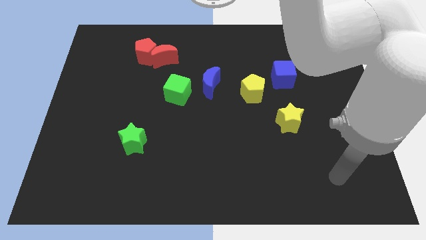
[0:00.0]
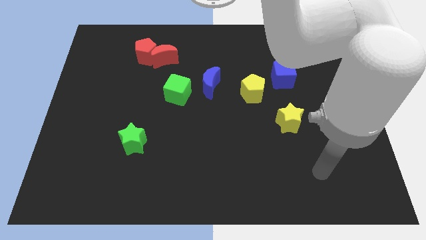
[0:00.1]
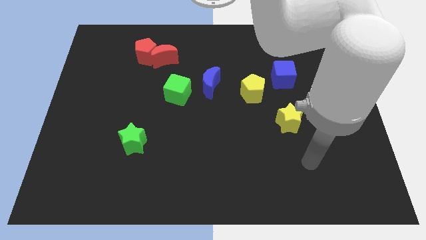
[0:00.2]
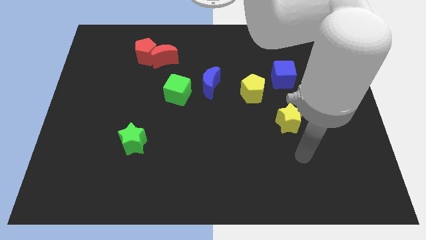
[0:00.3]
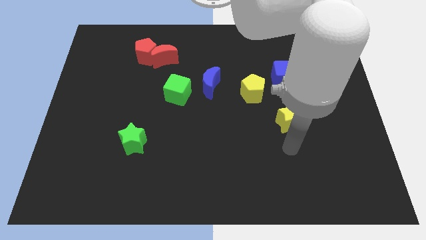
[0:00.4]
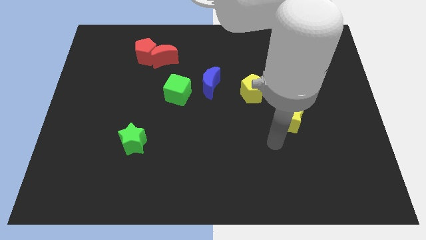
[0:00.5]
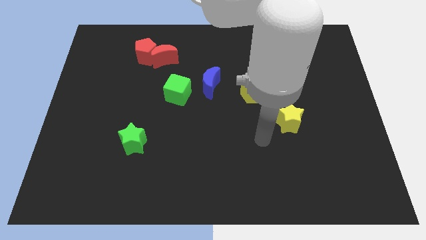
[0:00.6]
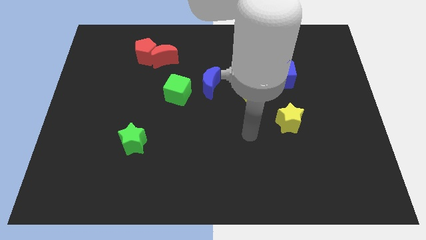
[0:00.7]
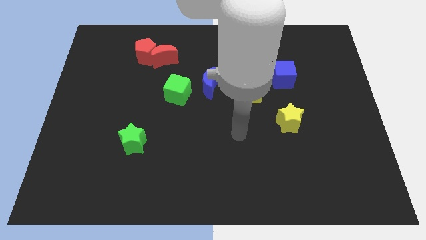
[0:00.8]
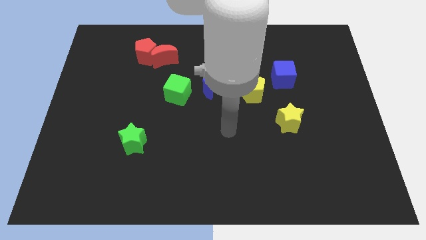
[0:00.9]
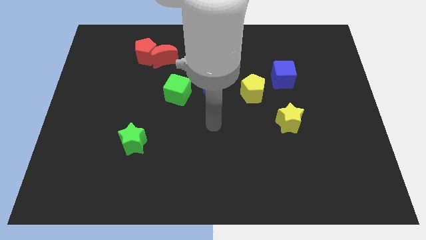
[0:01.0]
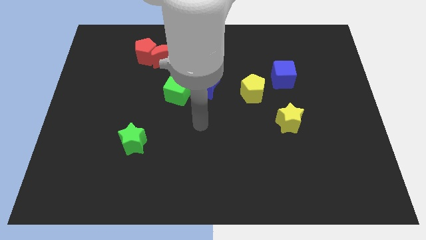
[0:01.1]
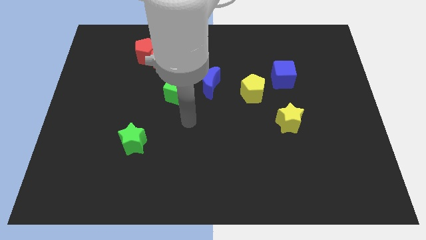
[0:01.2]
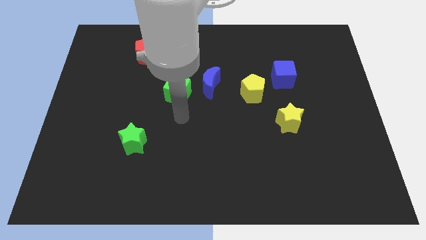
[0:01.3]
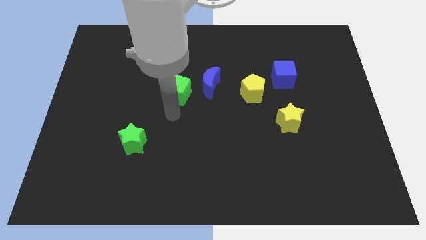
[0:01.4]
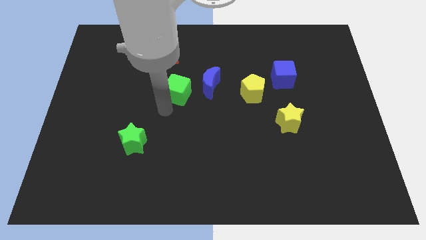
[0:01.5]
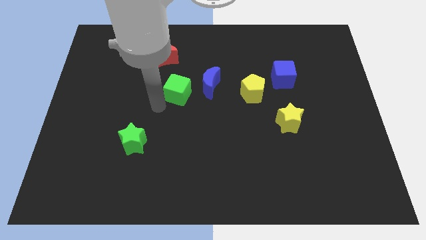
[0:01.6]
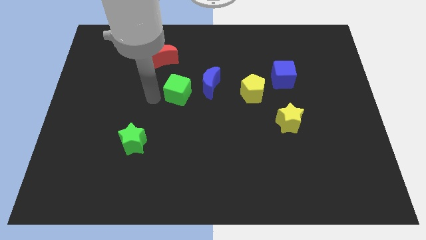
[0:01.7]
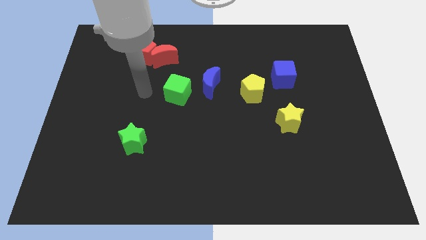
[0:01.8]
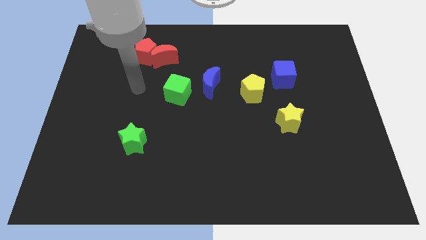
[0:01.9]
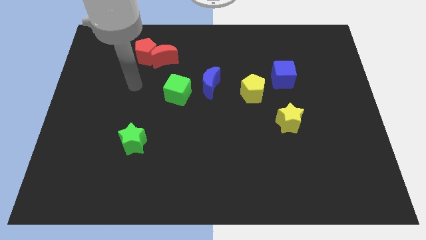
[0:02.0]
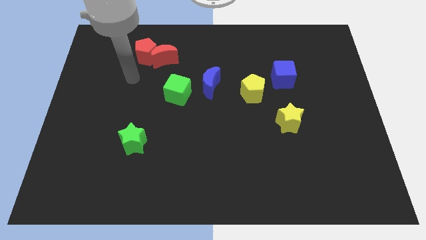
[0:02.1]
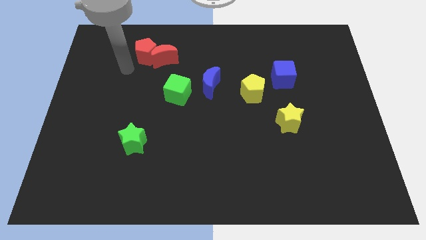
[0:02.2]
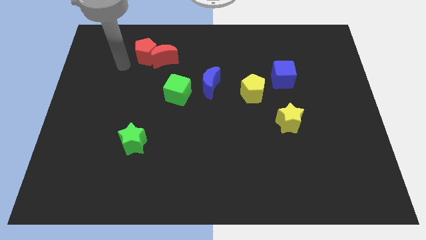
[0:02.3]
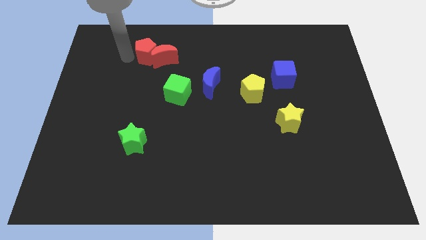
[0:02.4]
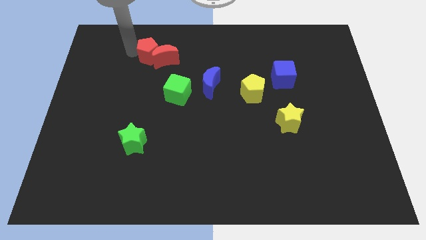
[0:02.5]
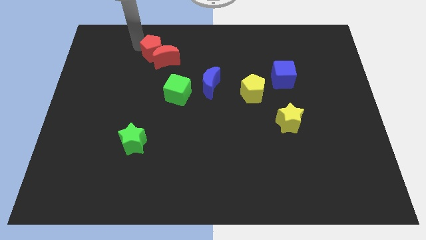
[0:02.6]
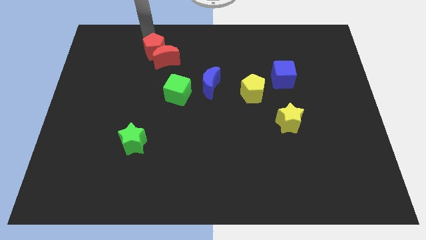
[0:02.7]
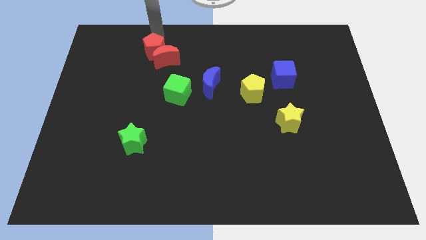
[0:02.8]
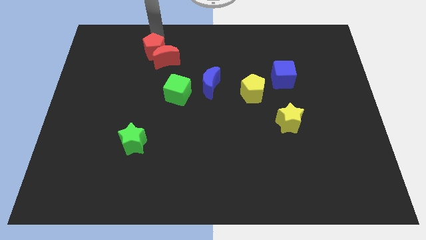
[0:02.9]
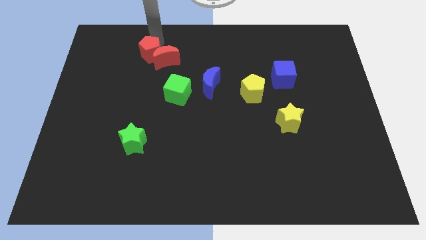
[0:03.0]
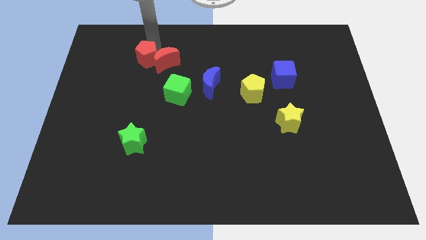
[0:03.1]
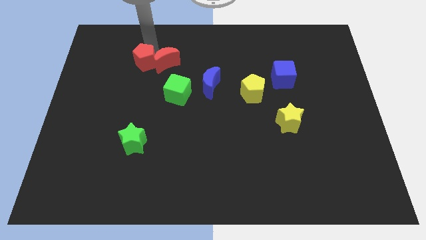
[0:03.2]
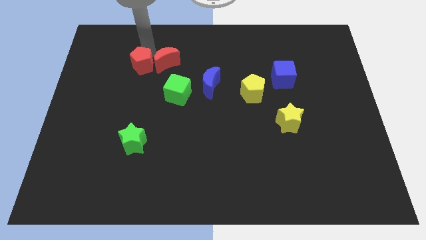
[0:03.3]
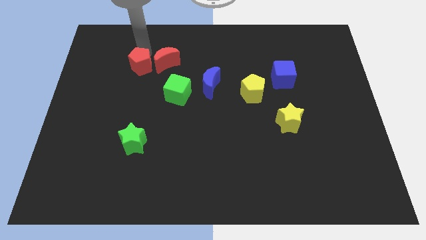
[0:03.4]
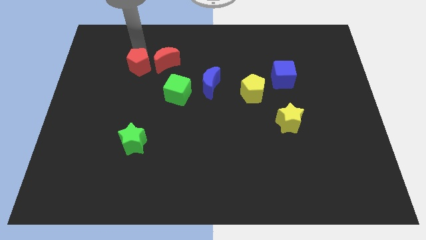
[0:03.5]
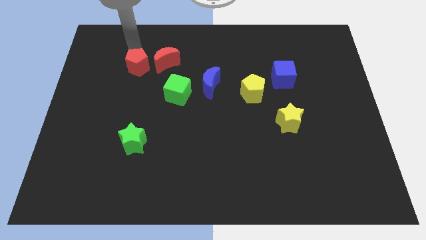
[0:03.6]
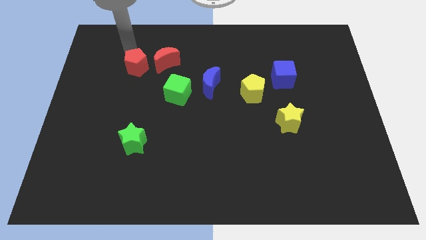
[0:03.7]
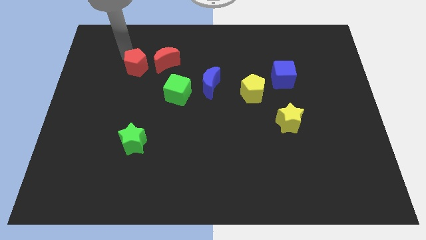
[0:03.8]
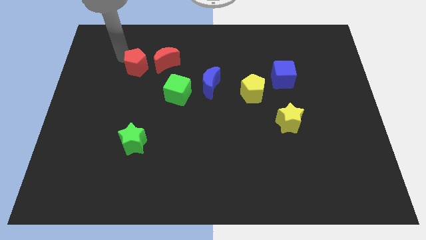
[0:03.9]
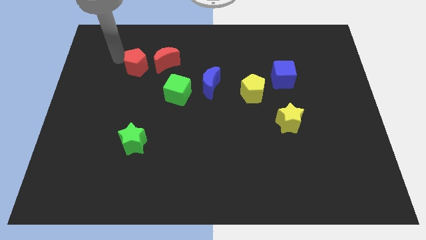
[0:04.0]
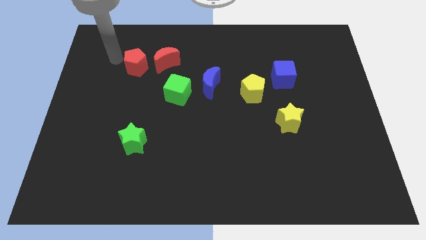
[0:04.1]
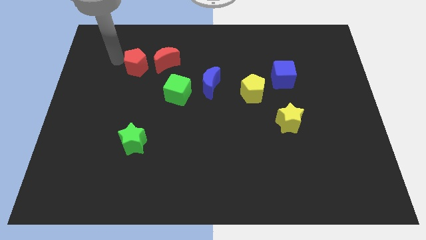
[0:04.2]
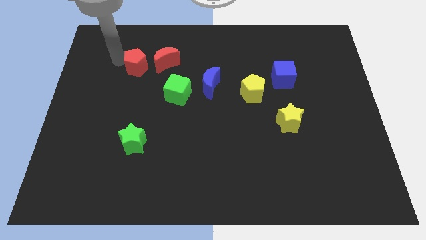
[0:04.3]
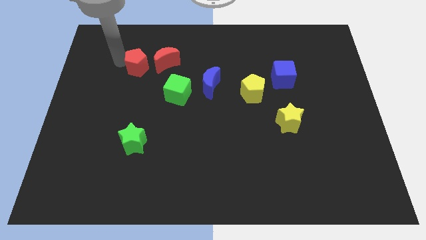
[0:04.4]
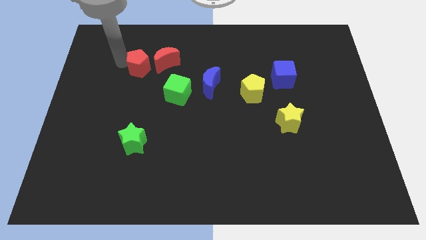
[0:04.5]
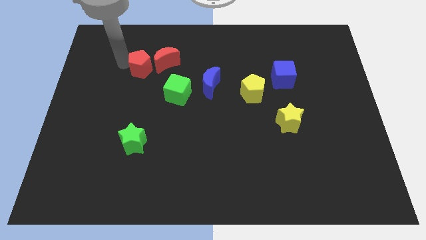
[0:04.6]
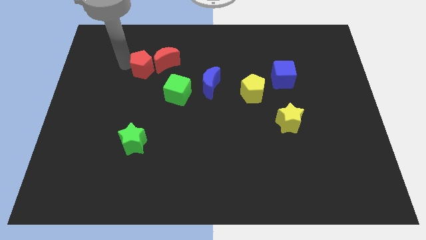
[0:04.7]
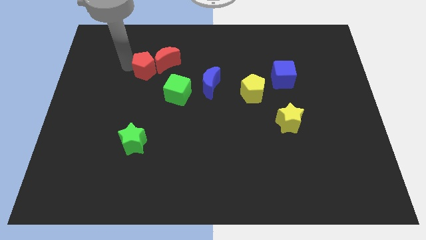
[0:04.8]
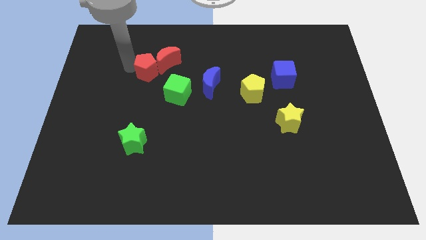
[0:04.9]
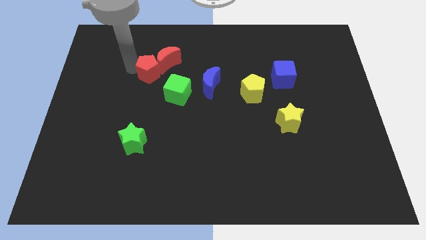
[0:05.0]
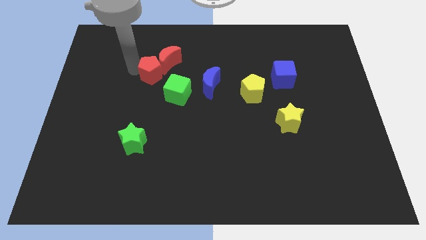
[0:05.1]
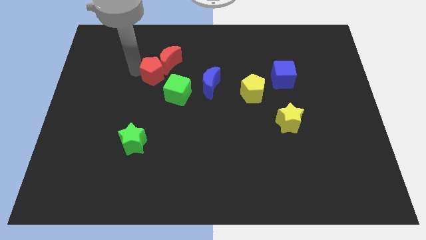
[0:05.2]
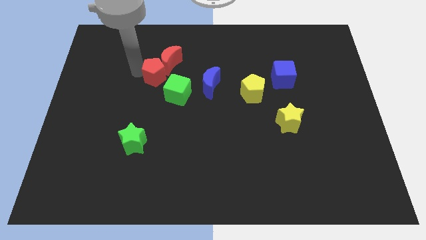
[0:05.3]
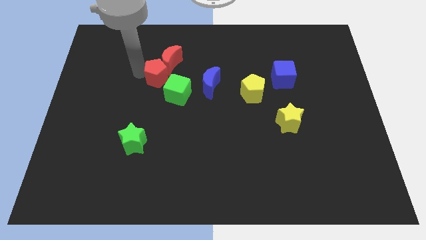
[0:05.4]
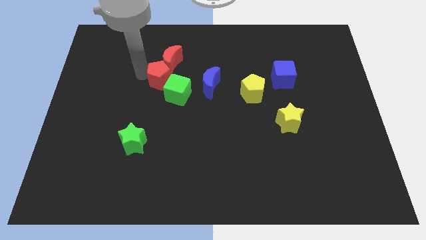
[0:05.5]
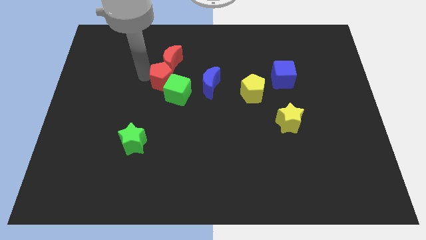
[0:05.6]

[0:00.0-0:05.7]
slide the red pentagon close to the green cube

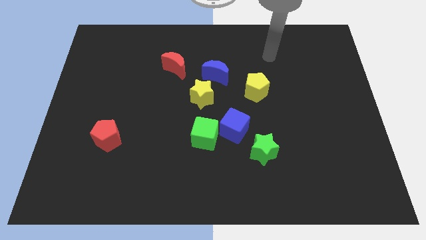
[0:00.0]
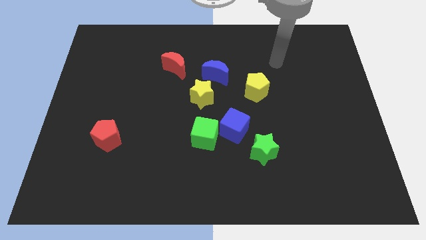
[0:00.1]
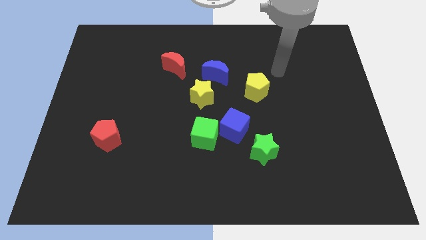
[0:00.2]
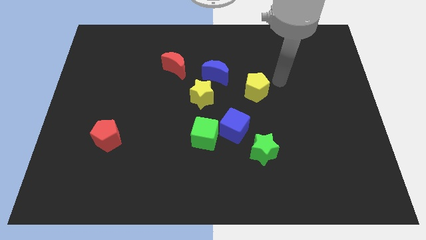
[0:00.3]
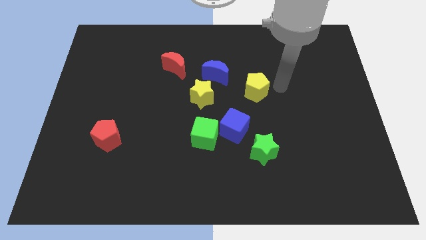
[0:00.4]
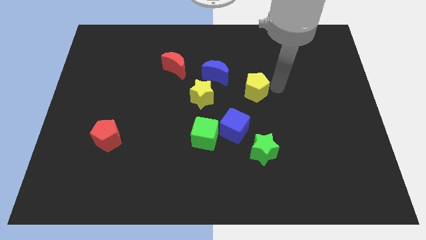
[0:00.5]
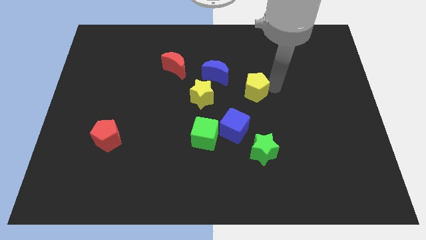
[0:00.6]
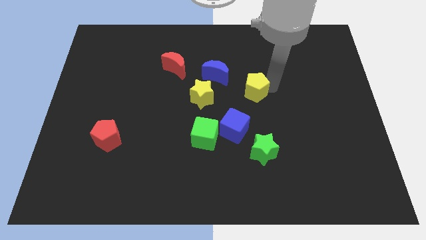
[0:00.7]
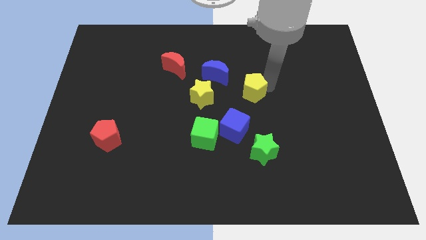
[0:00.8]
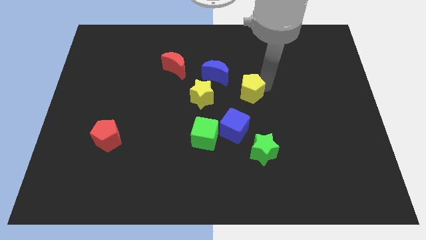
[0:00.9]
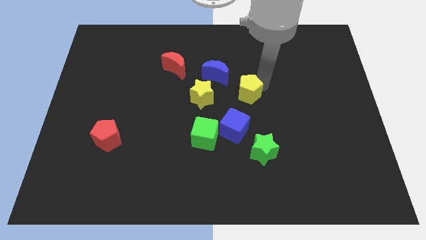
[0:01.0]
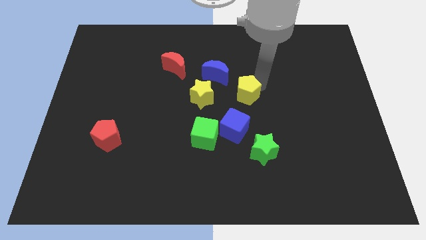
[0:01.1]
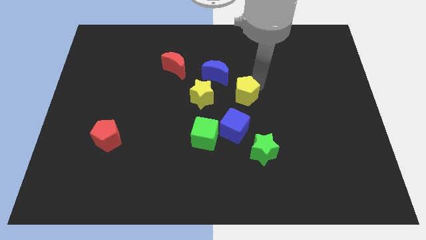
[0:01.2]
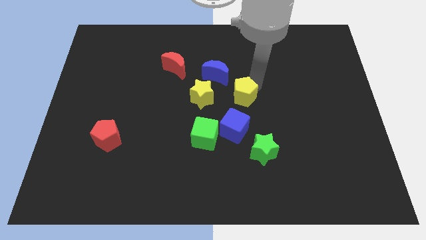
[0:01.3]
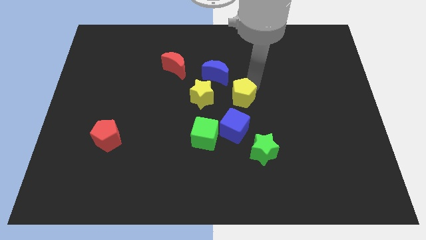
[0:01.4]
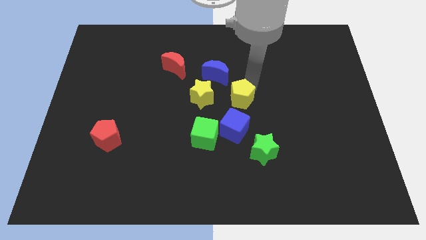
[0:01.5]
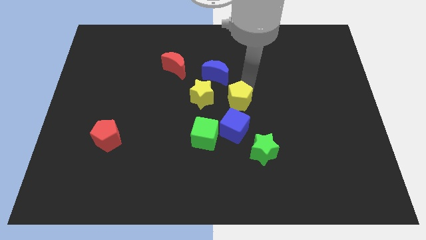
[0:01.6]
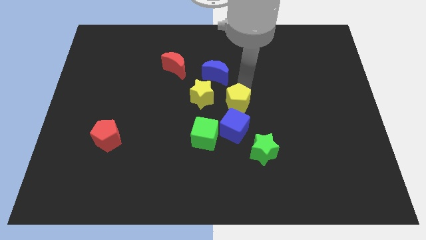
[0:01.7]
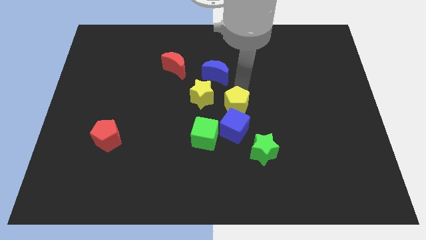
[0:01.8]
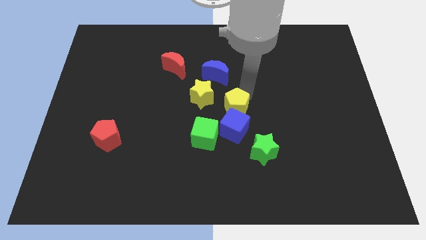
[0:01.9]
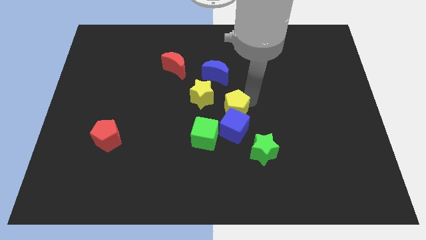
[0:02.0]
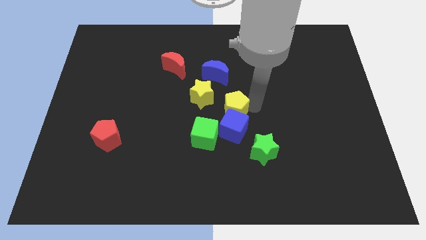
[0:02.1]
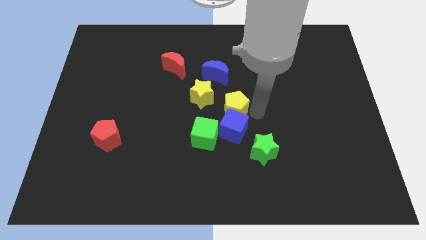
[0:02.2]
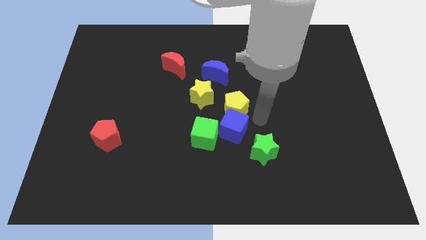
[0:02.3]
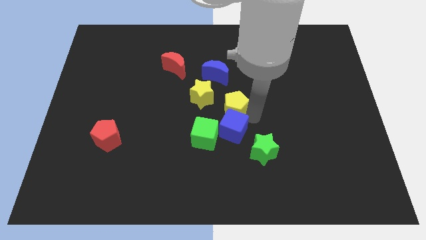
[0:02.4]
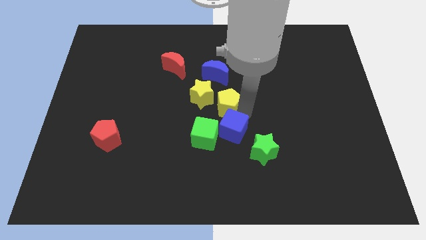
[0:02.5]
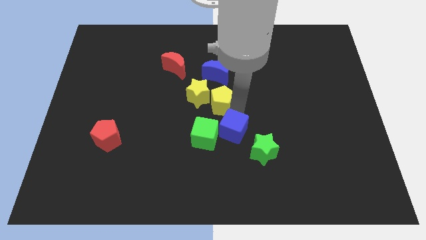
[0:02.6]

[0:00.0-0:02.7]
slide the yellow pentagon towards the yellow star
